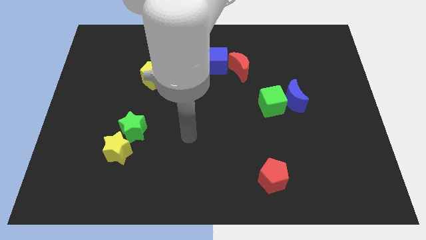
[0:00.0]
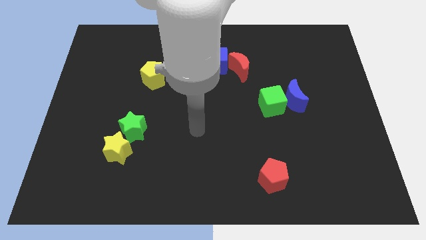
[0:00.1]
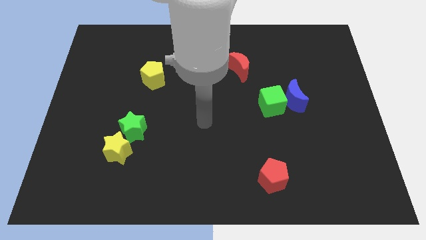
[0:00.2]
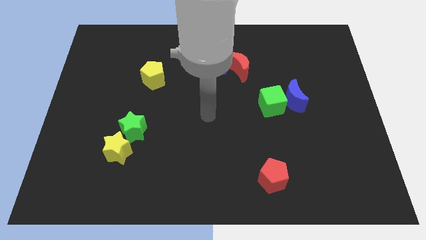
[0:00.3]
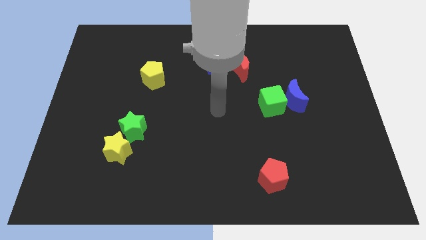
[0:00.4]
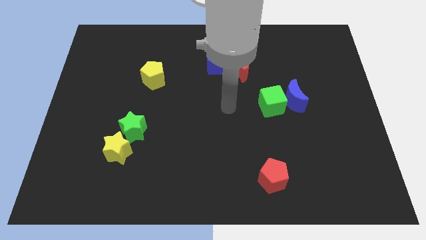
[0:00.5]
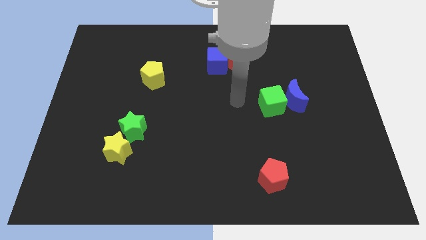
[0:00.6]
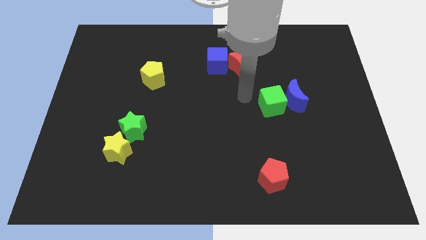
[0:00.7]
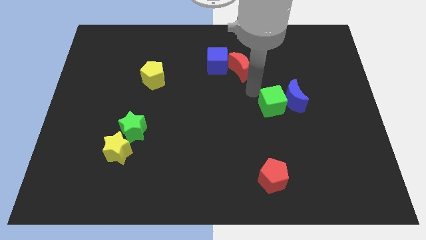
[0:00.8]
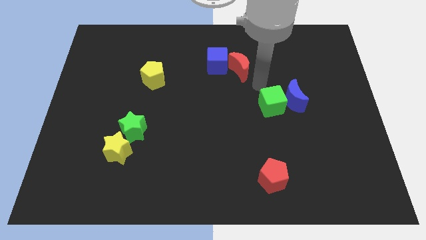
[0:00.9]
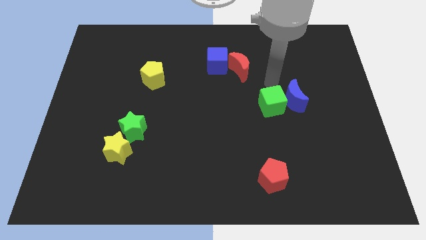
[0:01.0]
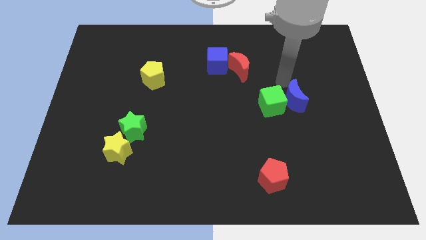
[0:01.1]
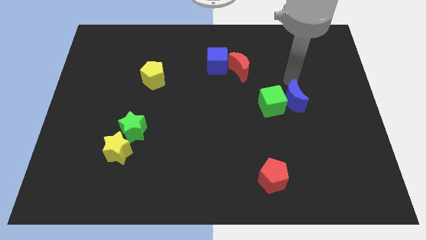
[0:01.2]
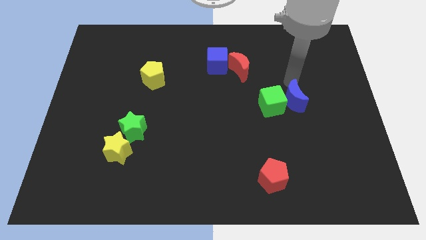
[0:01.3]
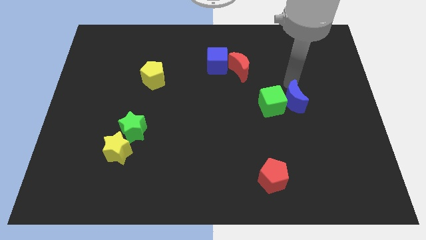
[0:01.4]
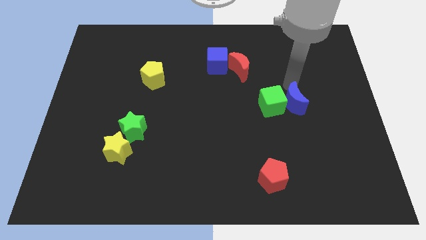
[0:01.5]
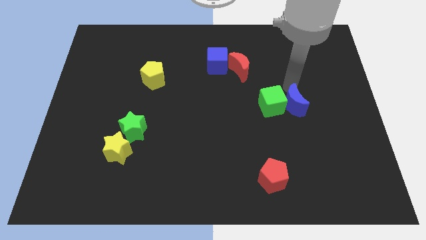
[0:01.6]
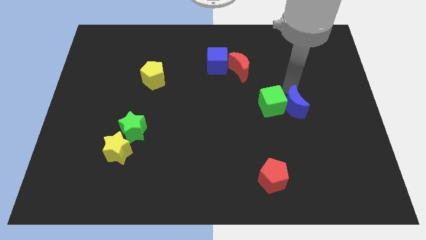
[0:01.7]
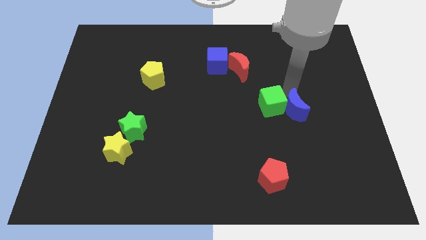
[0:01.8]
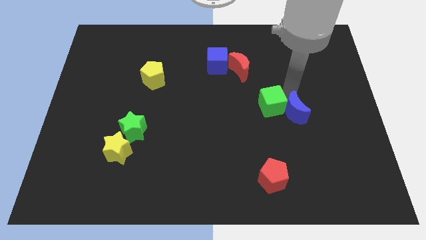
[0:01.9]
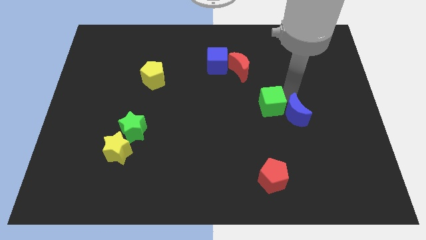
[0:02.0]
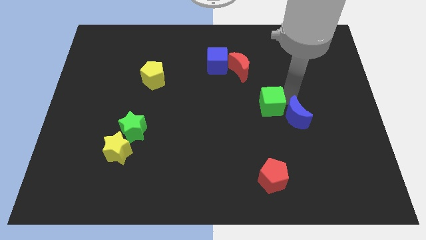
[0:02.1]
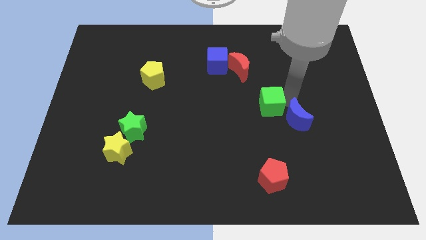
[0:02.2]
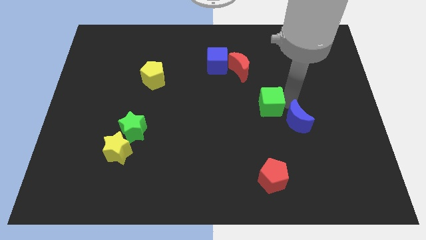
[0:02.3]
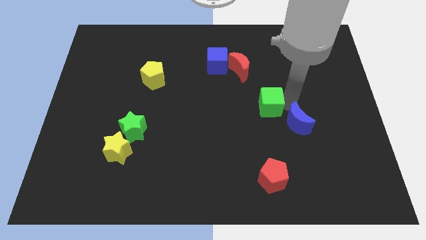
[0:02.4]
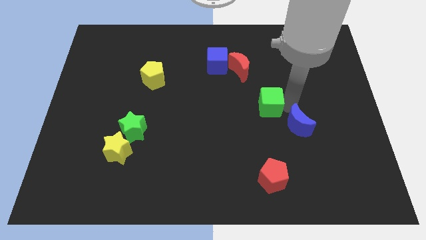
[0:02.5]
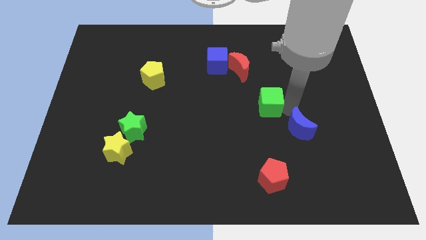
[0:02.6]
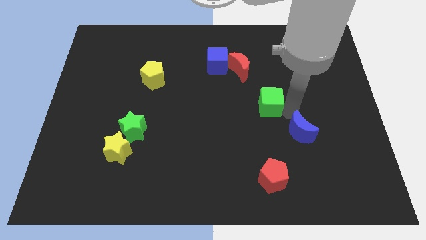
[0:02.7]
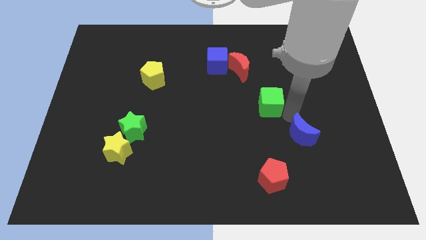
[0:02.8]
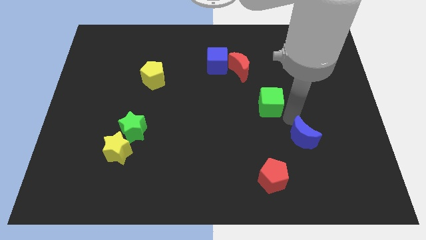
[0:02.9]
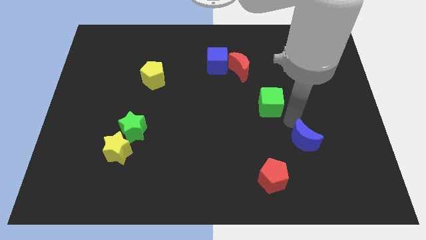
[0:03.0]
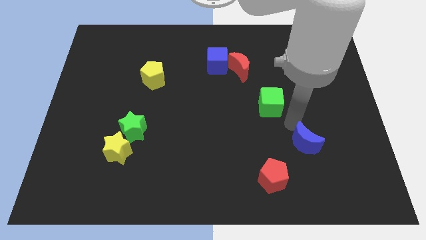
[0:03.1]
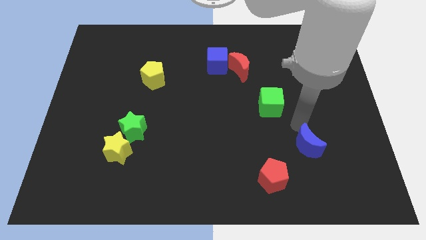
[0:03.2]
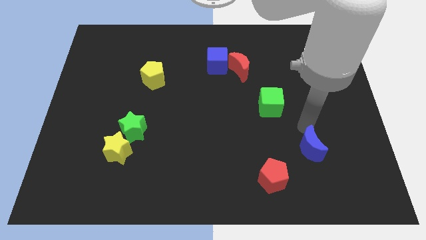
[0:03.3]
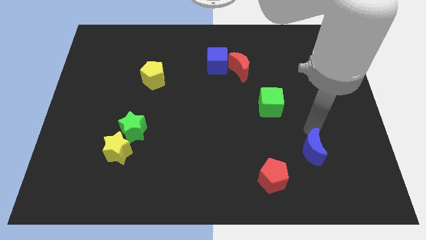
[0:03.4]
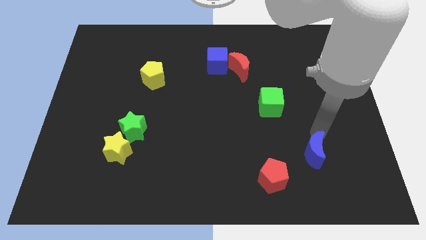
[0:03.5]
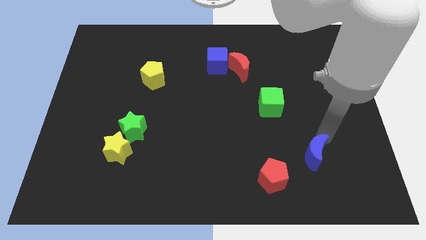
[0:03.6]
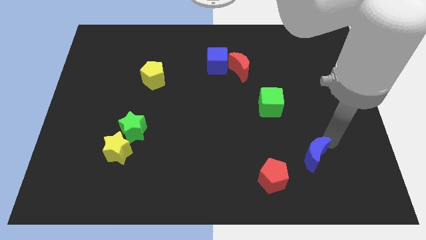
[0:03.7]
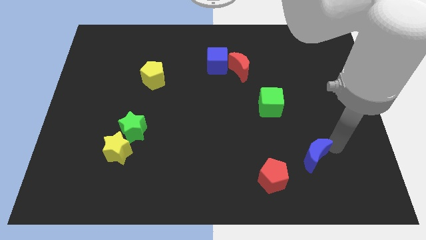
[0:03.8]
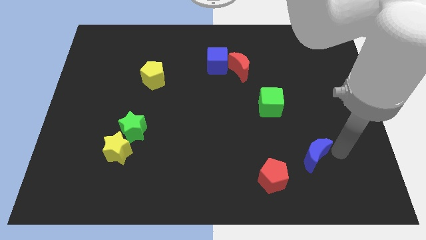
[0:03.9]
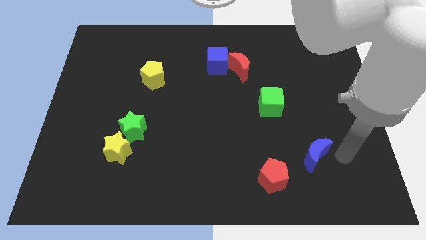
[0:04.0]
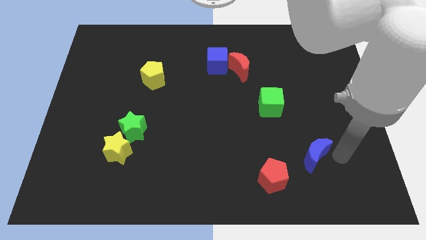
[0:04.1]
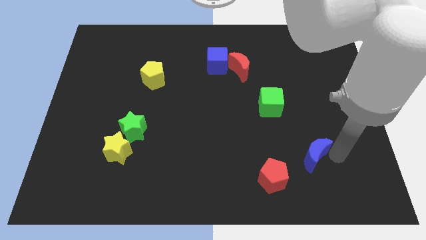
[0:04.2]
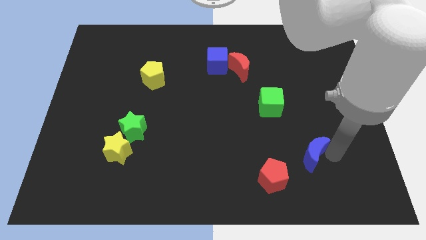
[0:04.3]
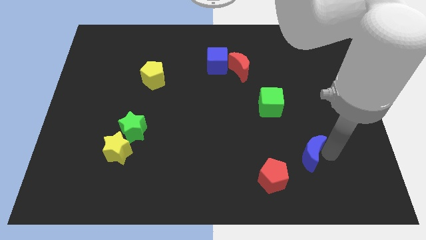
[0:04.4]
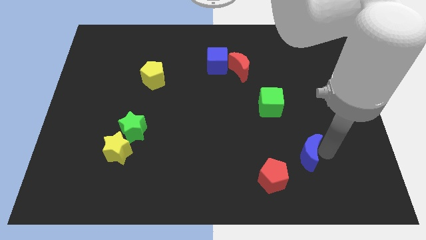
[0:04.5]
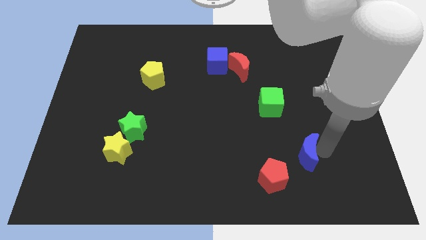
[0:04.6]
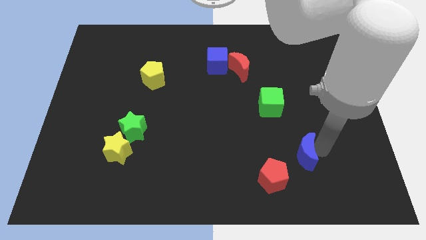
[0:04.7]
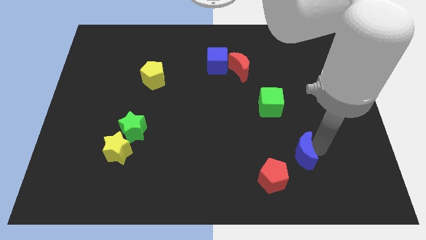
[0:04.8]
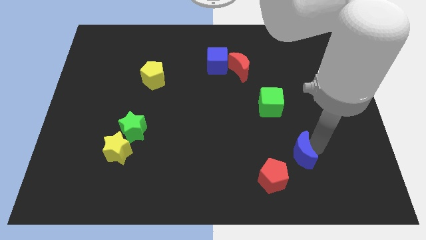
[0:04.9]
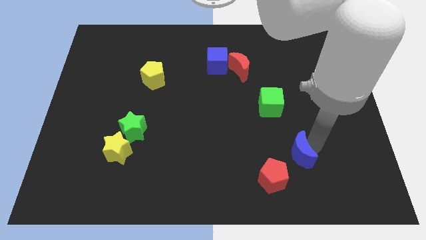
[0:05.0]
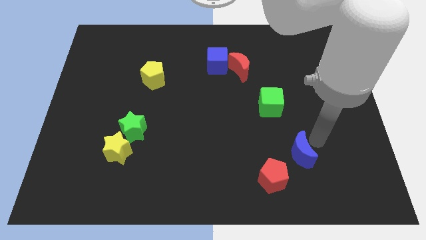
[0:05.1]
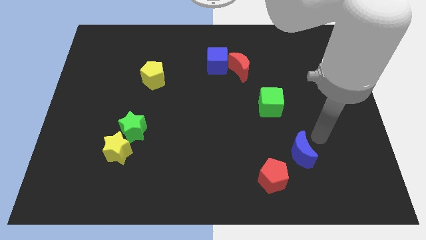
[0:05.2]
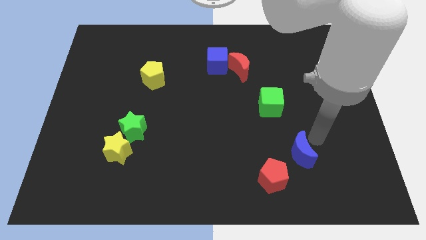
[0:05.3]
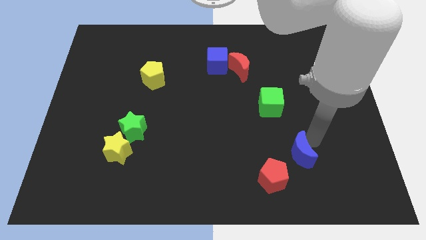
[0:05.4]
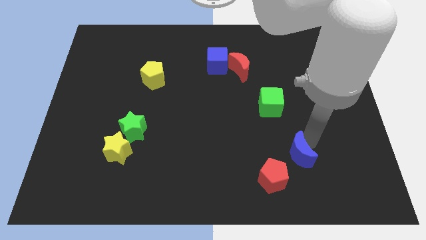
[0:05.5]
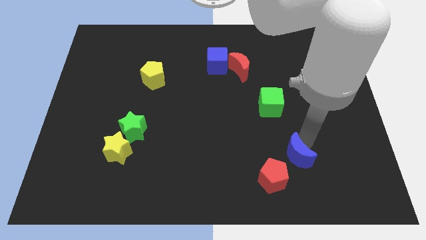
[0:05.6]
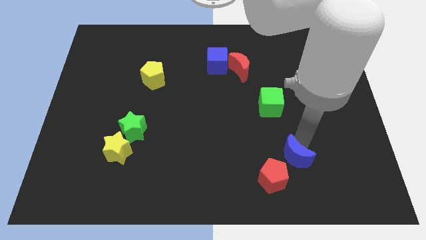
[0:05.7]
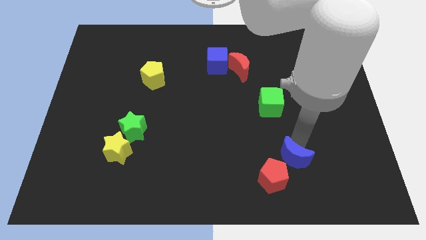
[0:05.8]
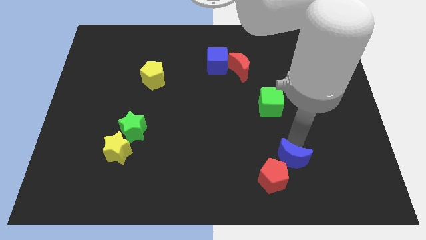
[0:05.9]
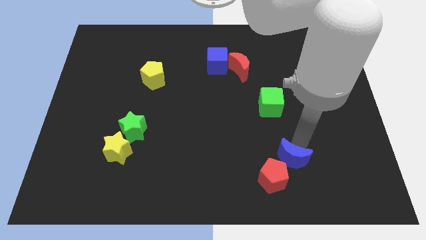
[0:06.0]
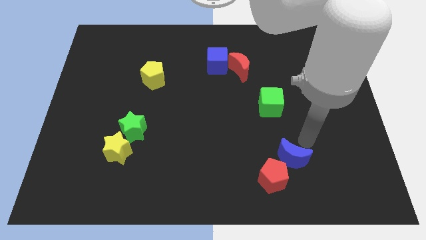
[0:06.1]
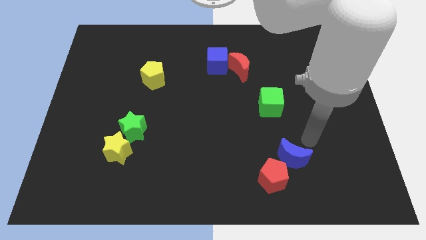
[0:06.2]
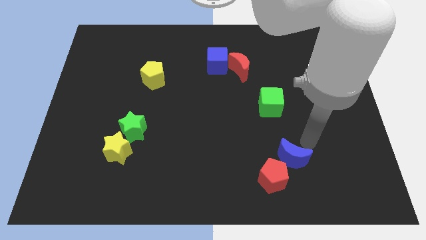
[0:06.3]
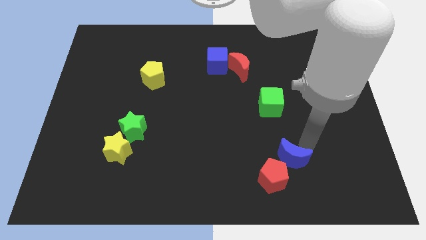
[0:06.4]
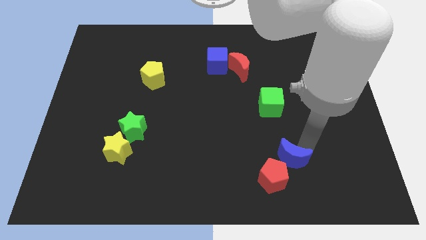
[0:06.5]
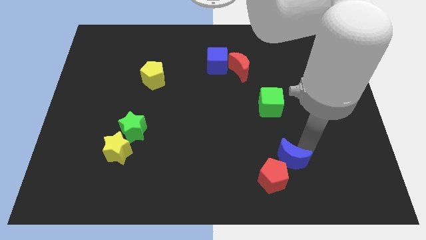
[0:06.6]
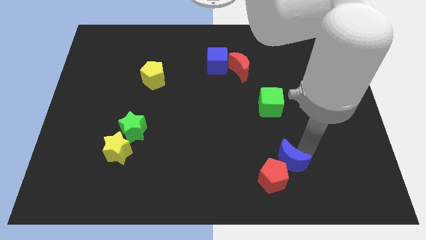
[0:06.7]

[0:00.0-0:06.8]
slide the blue moon to the red pentagon
